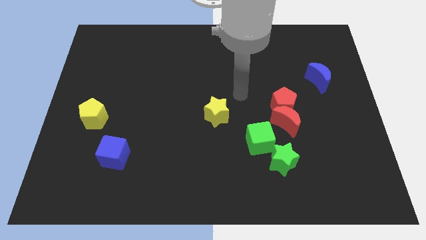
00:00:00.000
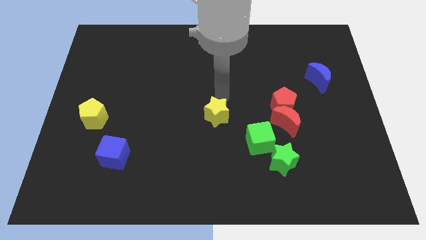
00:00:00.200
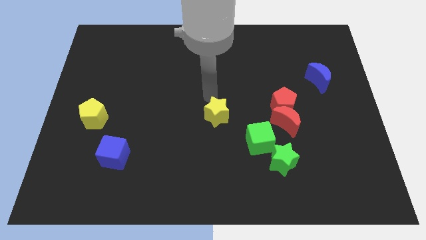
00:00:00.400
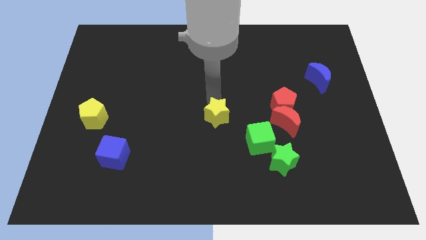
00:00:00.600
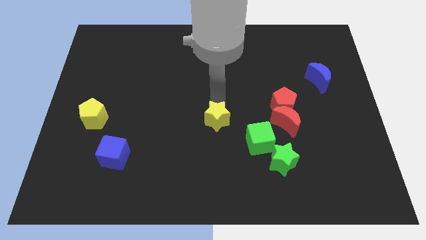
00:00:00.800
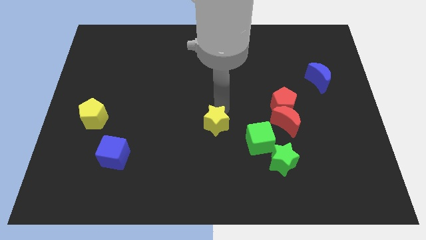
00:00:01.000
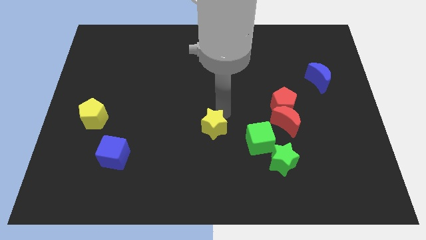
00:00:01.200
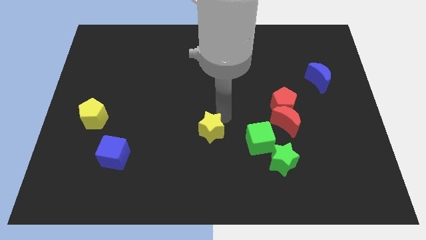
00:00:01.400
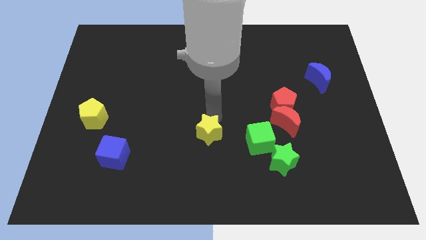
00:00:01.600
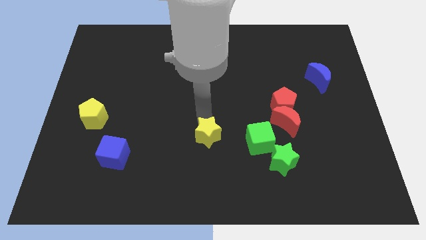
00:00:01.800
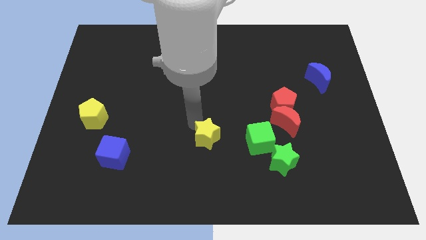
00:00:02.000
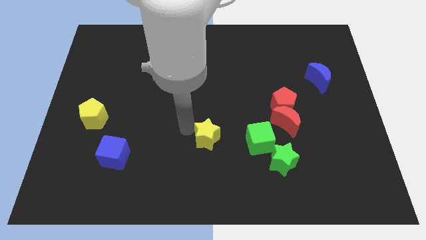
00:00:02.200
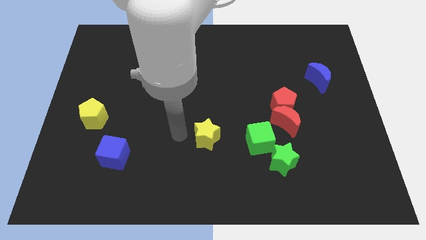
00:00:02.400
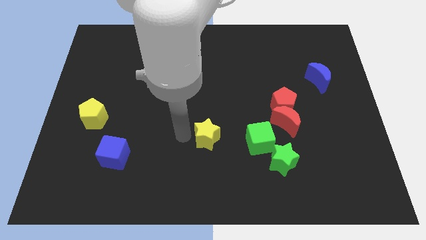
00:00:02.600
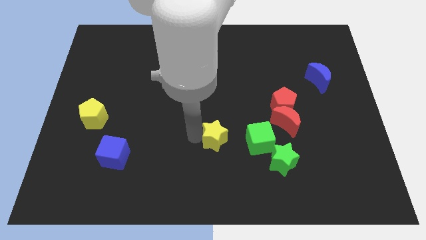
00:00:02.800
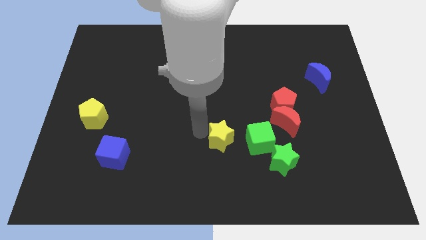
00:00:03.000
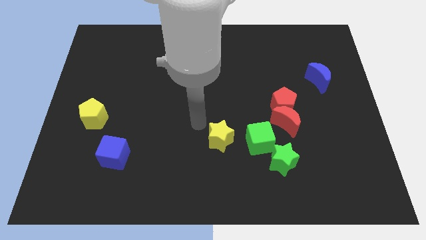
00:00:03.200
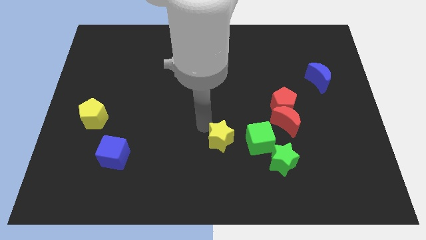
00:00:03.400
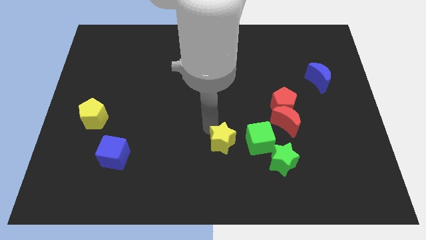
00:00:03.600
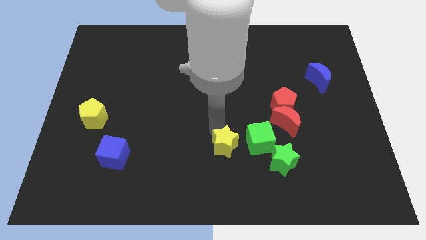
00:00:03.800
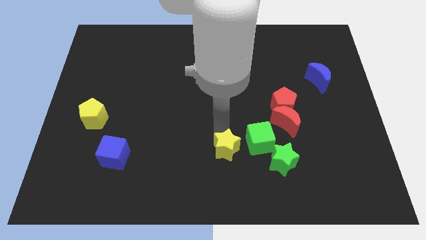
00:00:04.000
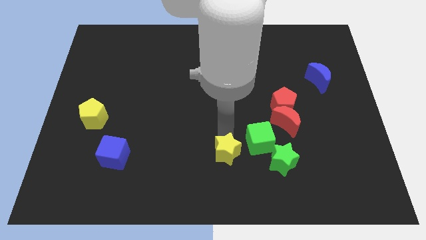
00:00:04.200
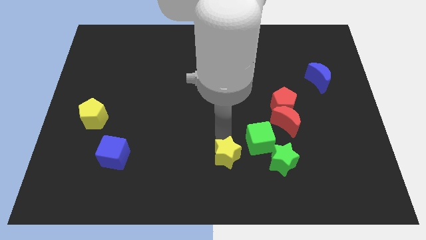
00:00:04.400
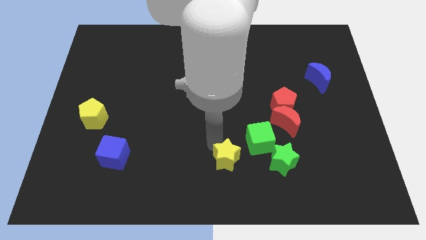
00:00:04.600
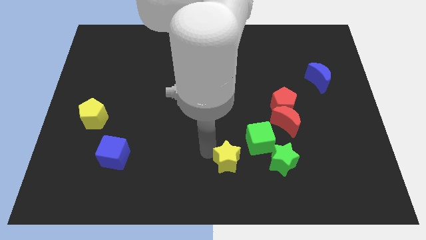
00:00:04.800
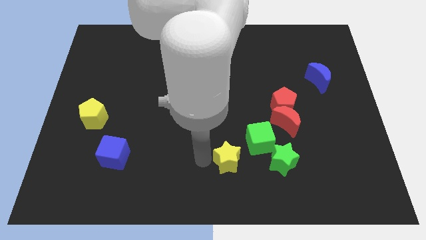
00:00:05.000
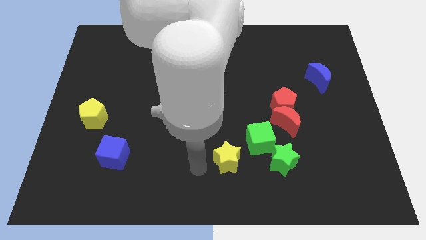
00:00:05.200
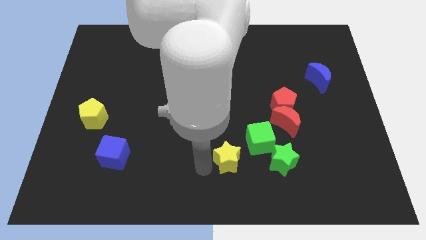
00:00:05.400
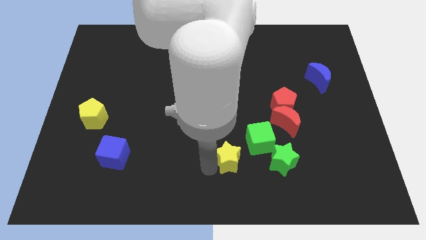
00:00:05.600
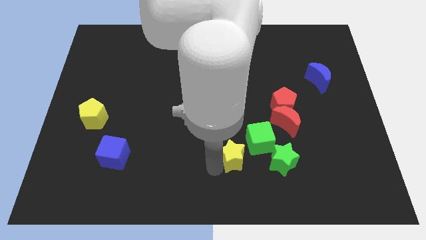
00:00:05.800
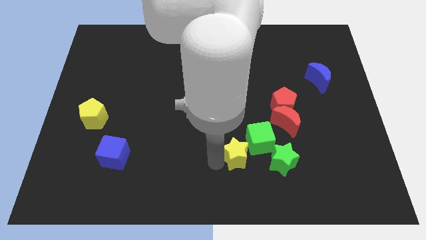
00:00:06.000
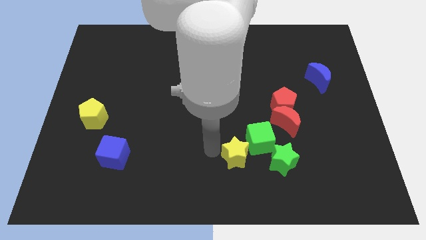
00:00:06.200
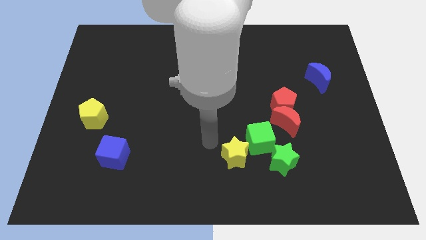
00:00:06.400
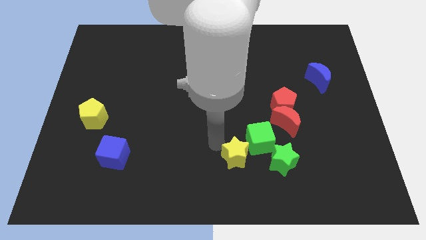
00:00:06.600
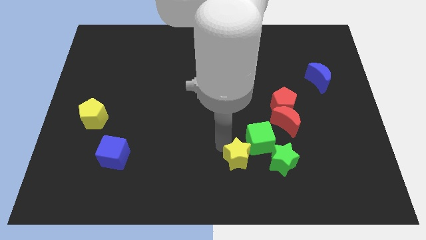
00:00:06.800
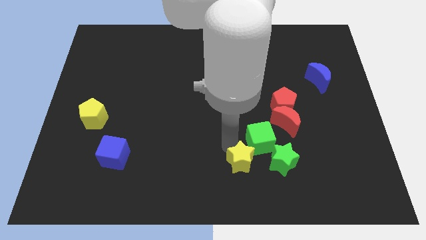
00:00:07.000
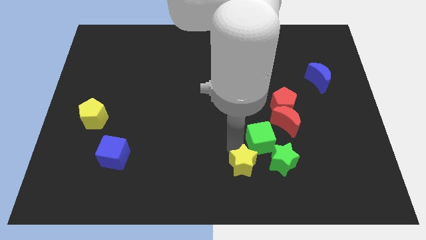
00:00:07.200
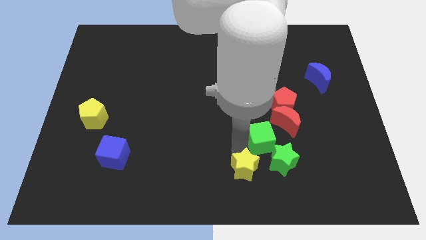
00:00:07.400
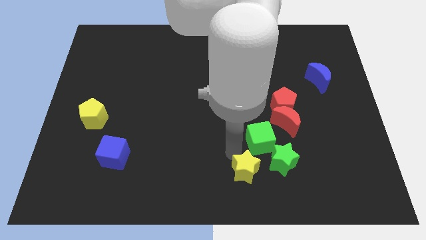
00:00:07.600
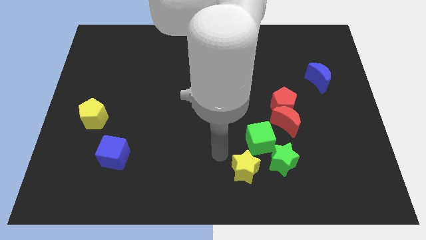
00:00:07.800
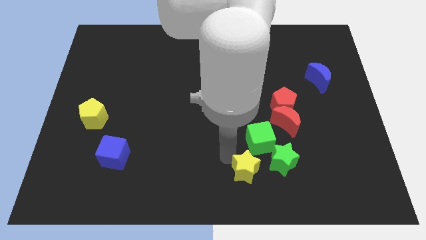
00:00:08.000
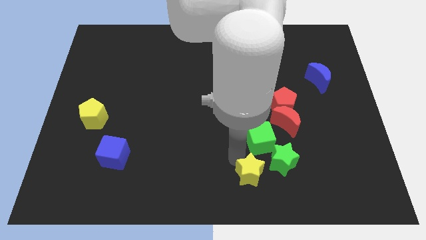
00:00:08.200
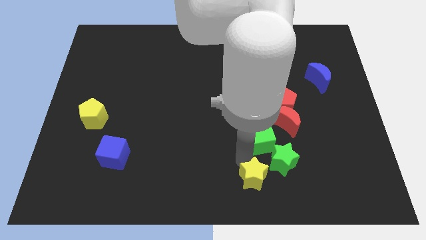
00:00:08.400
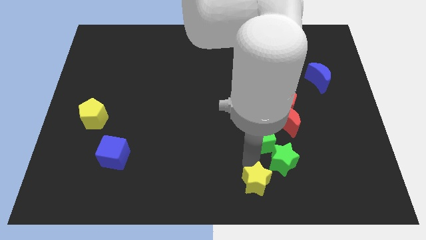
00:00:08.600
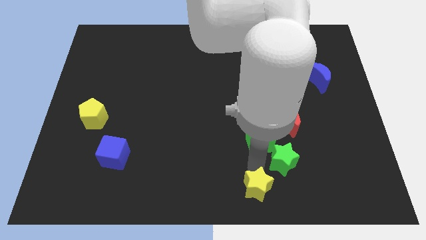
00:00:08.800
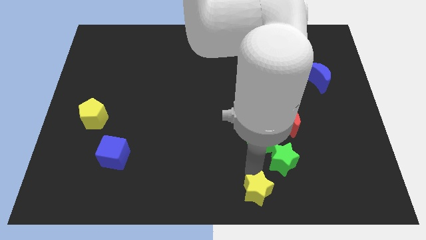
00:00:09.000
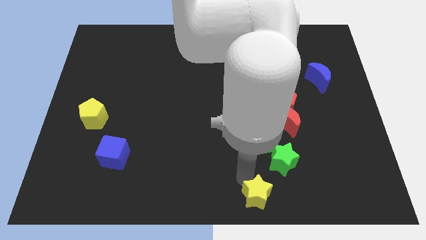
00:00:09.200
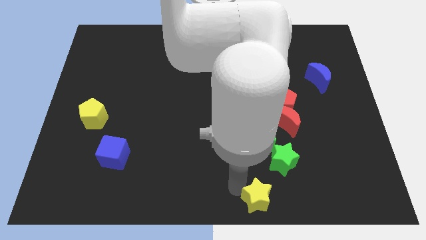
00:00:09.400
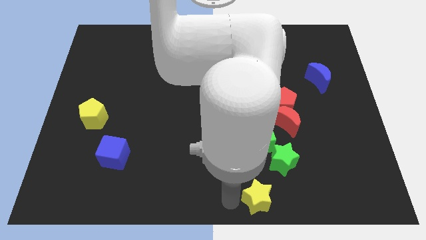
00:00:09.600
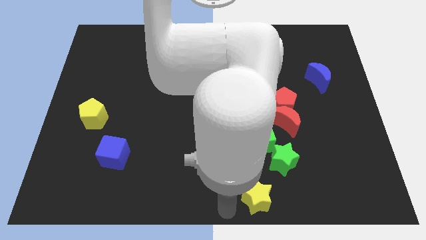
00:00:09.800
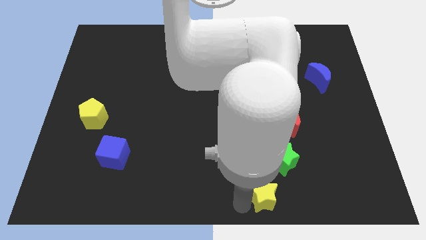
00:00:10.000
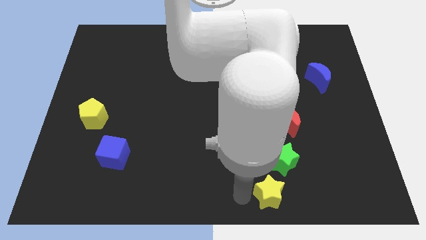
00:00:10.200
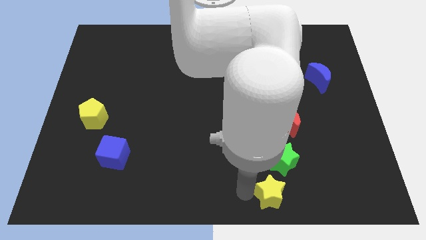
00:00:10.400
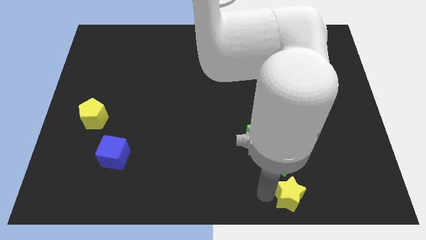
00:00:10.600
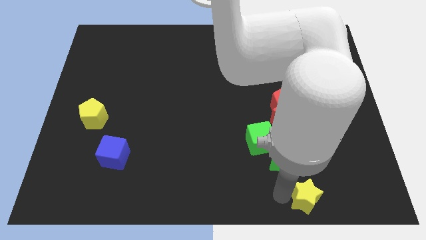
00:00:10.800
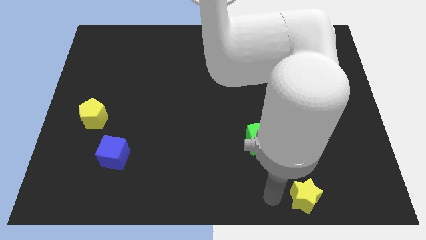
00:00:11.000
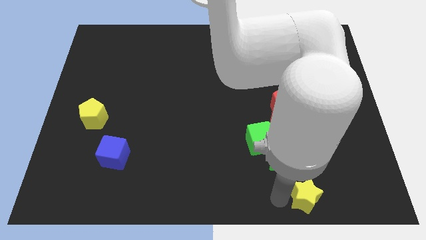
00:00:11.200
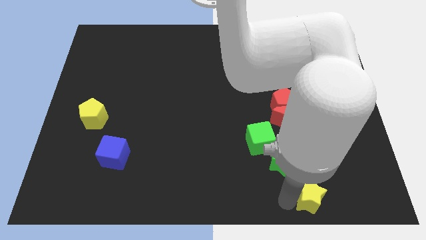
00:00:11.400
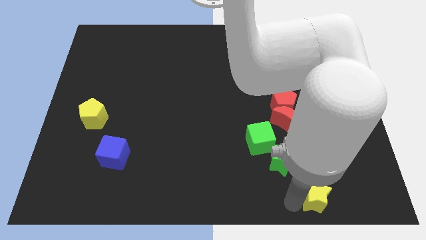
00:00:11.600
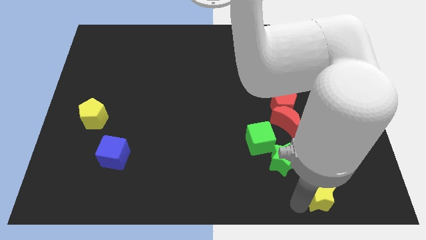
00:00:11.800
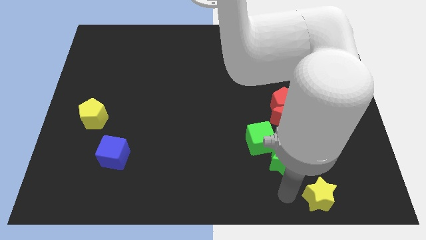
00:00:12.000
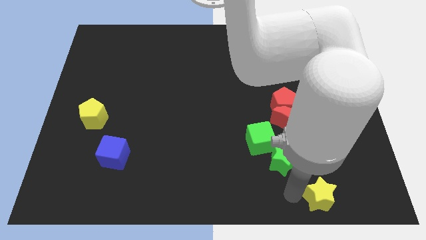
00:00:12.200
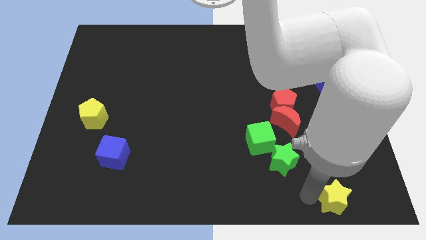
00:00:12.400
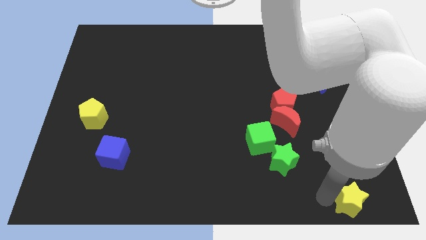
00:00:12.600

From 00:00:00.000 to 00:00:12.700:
put the yellow star to the lower right corner
